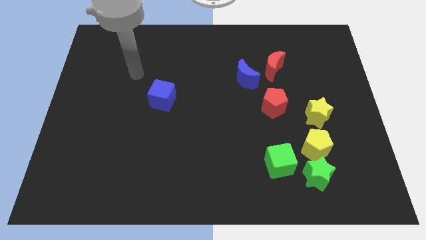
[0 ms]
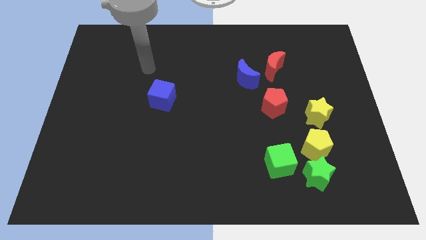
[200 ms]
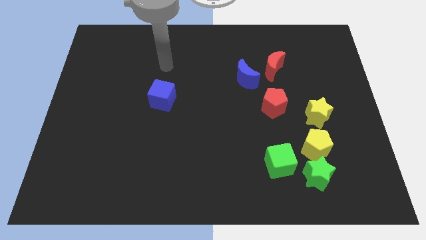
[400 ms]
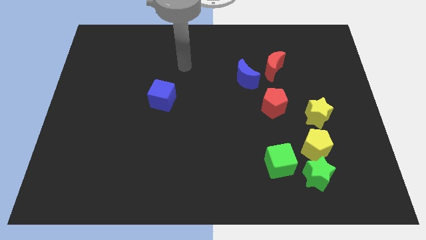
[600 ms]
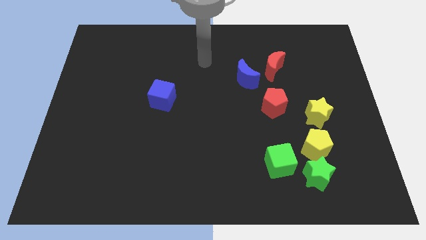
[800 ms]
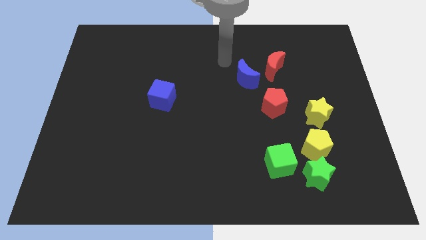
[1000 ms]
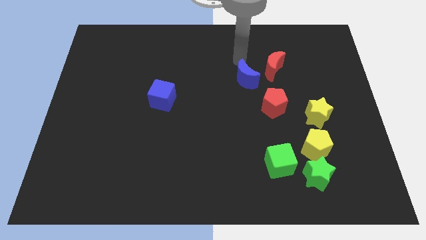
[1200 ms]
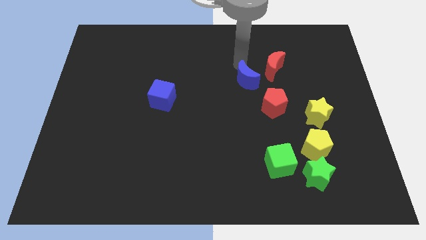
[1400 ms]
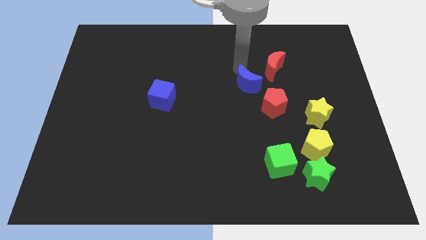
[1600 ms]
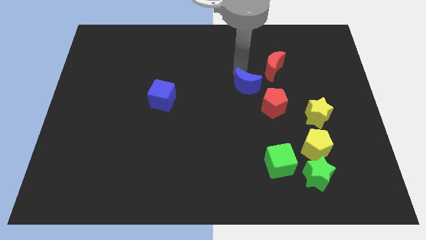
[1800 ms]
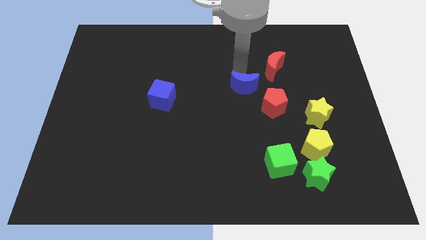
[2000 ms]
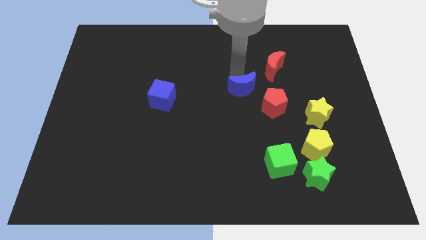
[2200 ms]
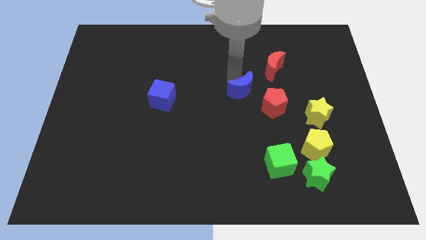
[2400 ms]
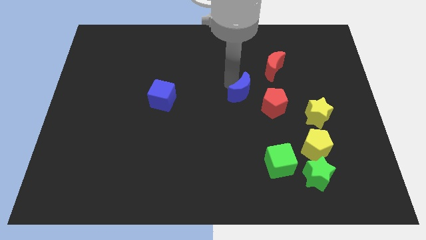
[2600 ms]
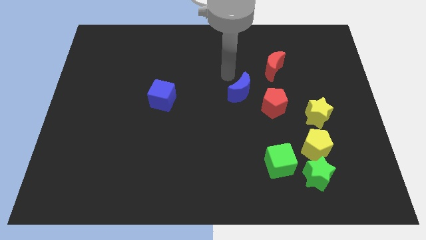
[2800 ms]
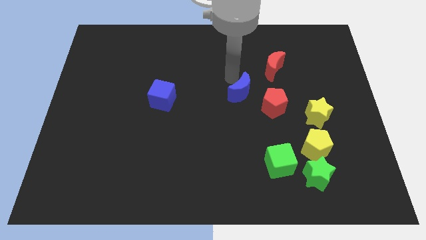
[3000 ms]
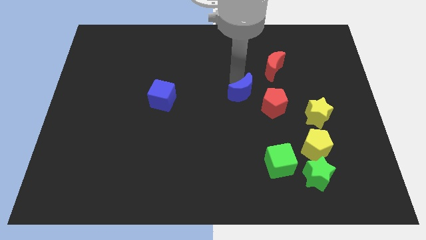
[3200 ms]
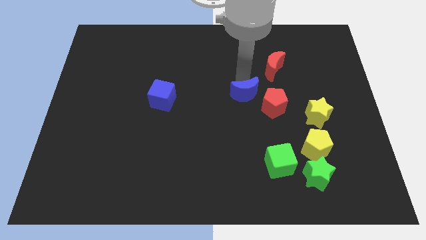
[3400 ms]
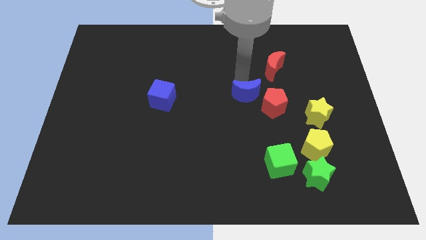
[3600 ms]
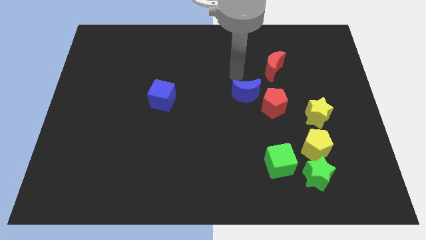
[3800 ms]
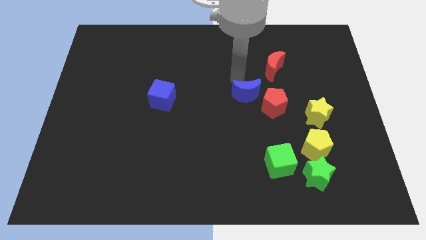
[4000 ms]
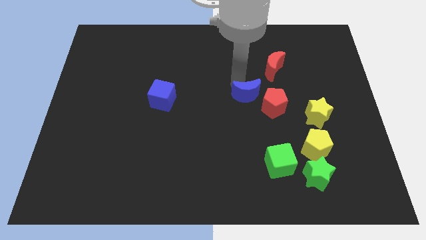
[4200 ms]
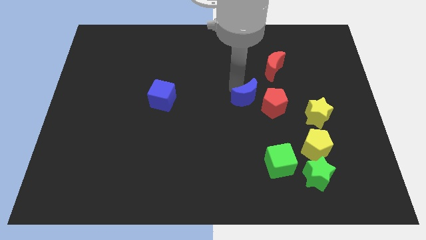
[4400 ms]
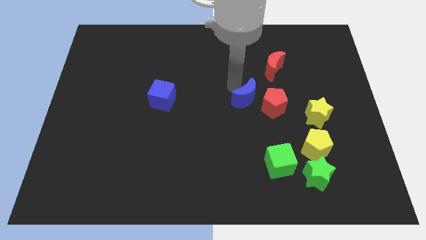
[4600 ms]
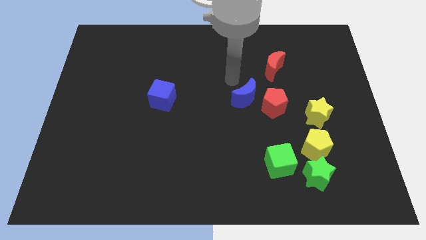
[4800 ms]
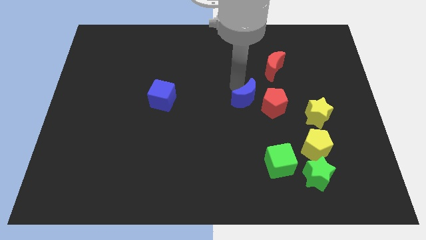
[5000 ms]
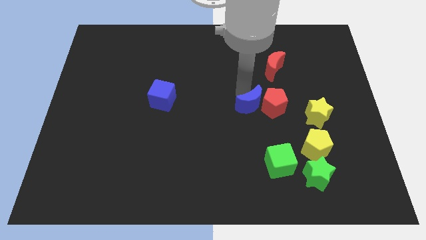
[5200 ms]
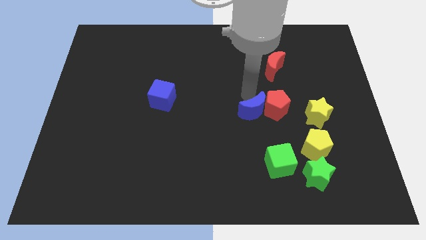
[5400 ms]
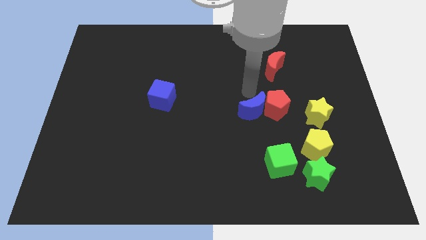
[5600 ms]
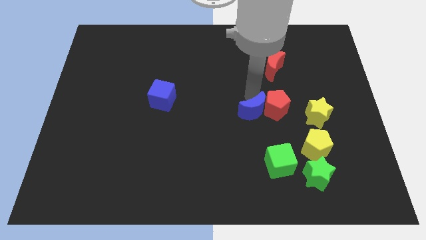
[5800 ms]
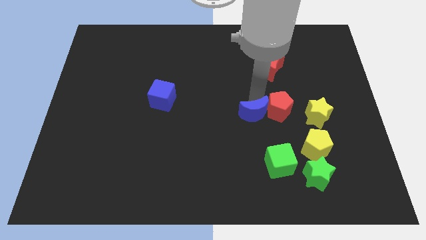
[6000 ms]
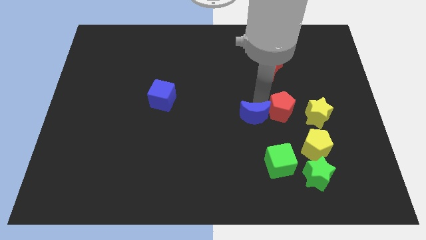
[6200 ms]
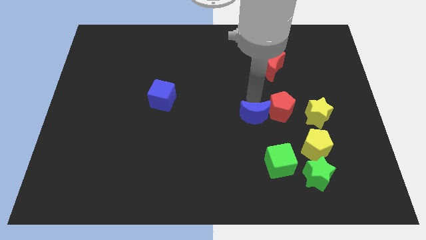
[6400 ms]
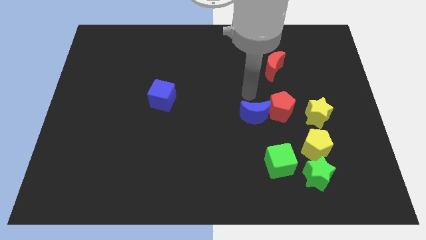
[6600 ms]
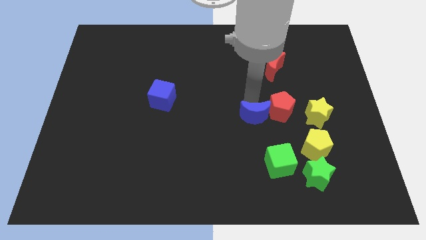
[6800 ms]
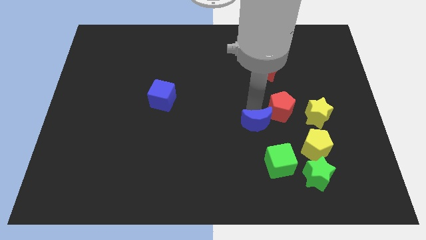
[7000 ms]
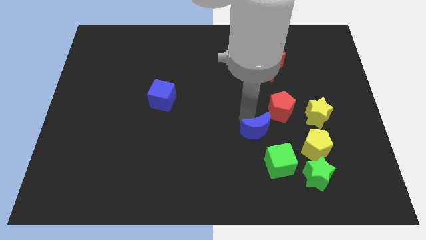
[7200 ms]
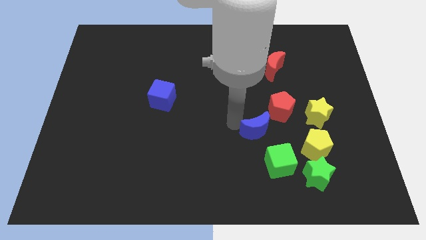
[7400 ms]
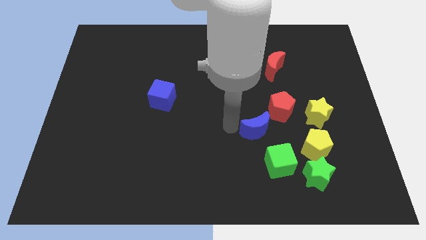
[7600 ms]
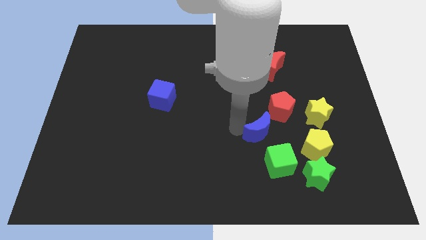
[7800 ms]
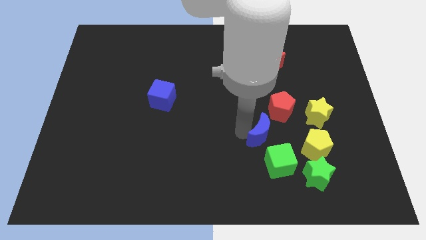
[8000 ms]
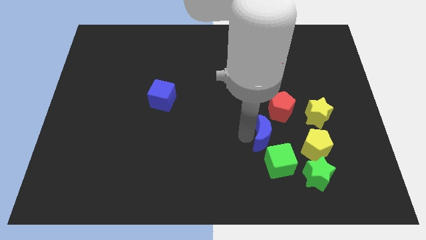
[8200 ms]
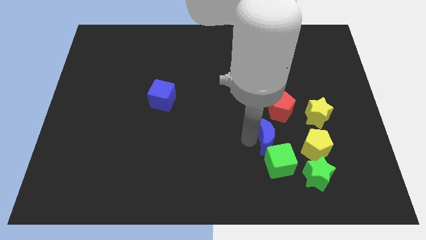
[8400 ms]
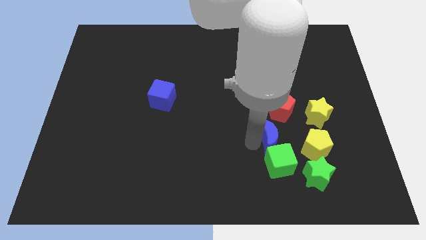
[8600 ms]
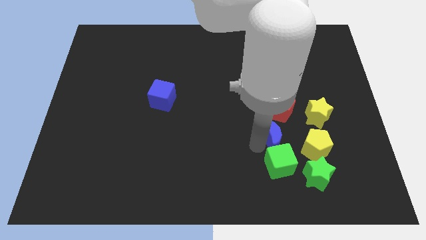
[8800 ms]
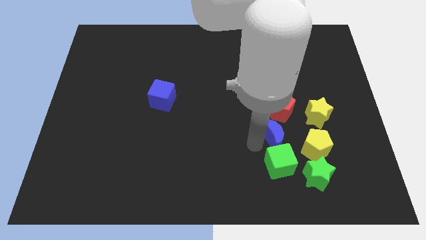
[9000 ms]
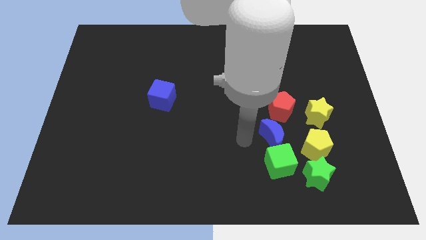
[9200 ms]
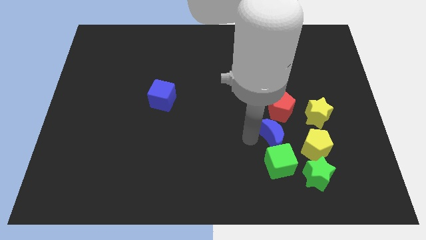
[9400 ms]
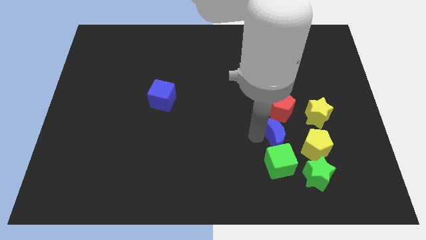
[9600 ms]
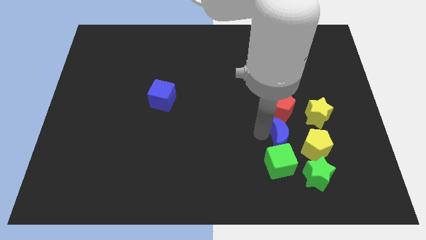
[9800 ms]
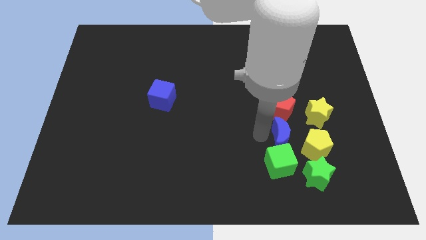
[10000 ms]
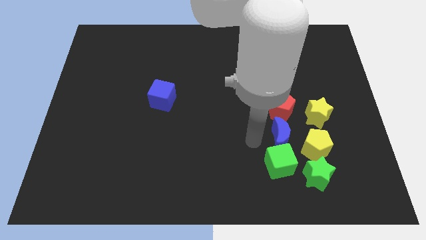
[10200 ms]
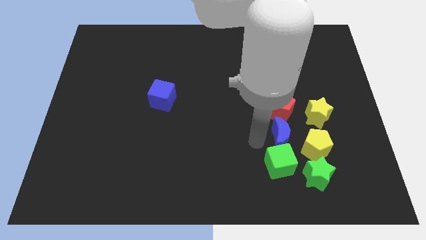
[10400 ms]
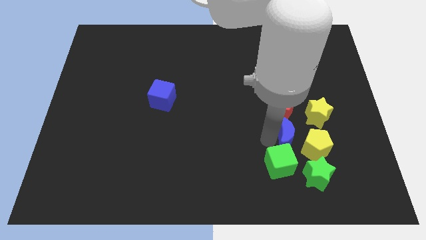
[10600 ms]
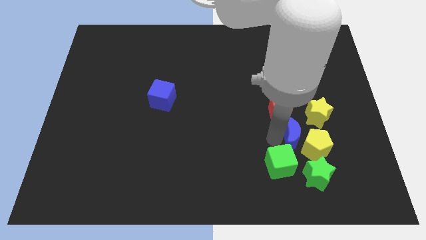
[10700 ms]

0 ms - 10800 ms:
put the blue moon close to the yellow pentagon

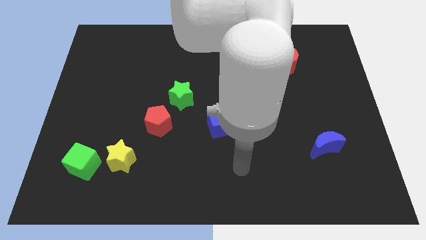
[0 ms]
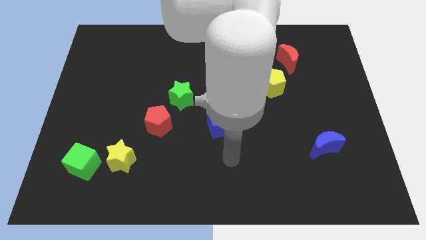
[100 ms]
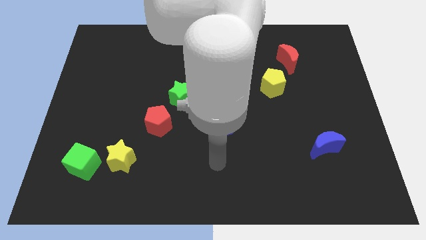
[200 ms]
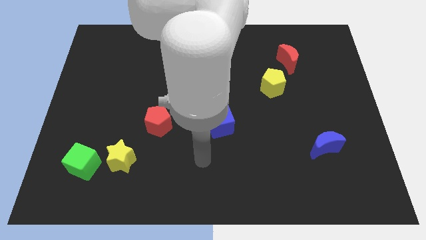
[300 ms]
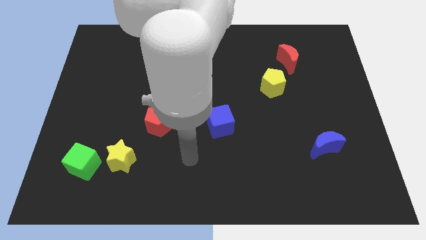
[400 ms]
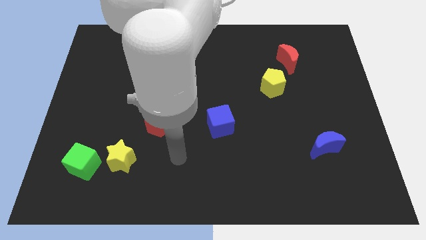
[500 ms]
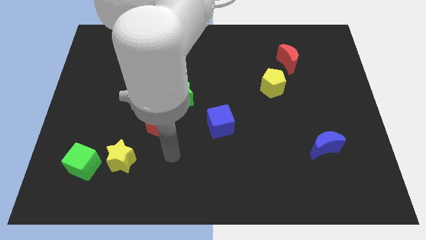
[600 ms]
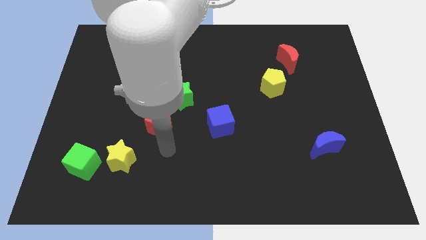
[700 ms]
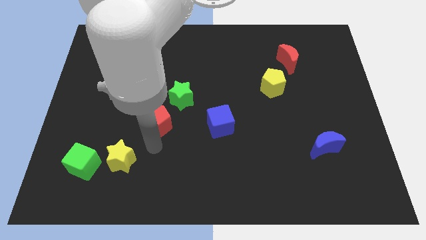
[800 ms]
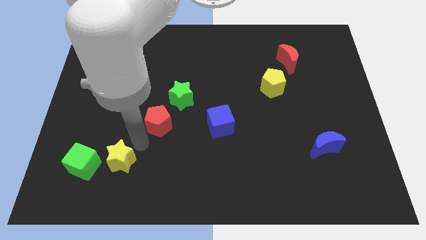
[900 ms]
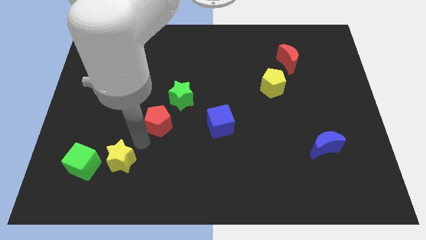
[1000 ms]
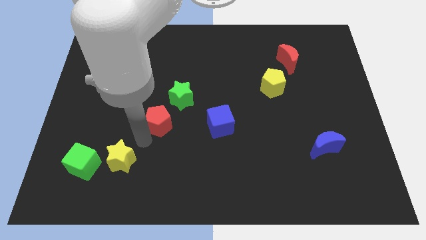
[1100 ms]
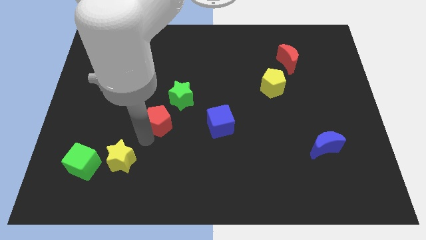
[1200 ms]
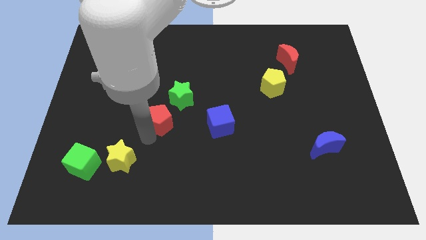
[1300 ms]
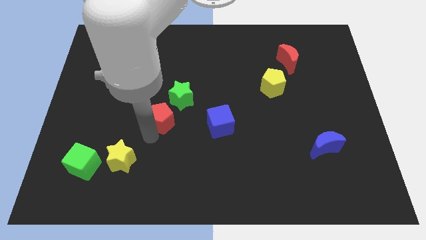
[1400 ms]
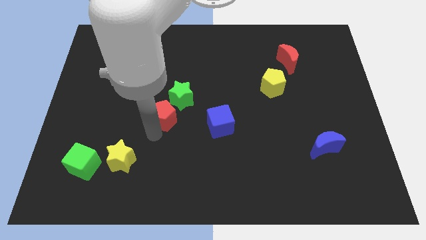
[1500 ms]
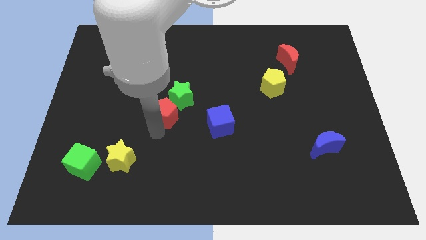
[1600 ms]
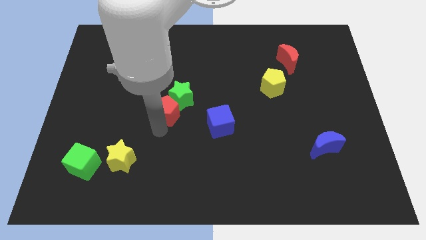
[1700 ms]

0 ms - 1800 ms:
move the red pentagon towards the green star

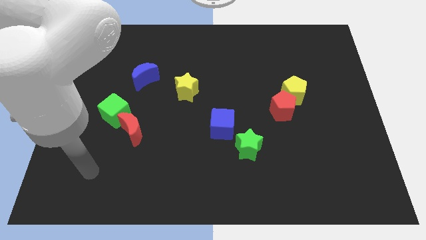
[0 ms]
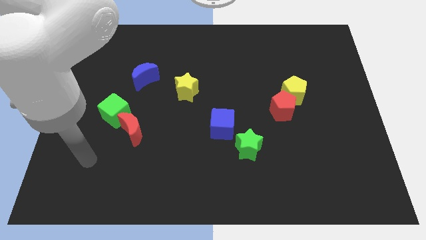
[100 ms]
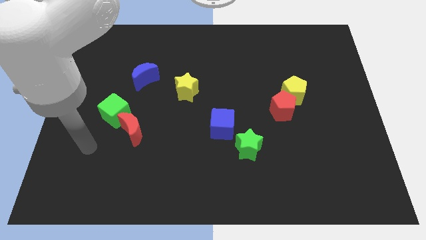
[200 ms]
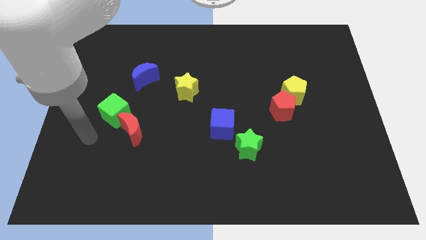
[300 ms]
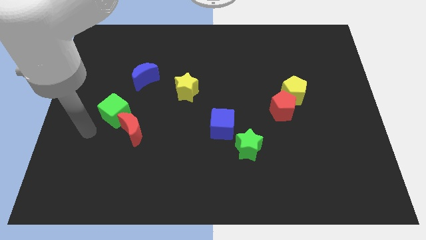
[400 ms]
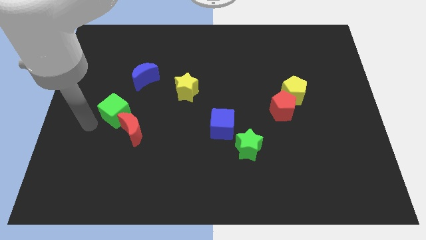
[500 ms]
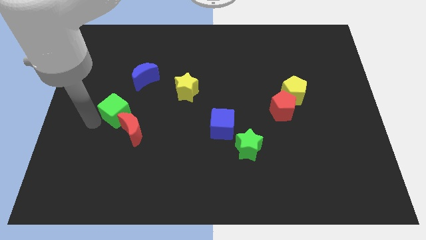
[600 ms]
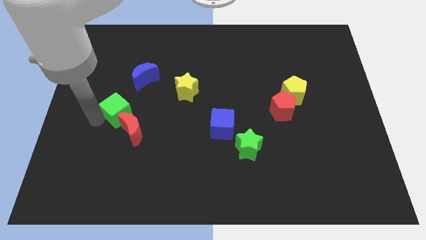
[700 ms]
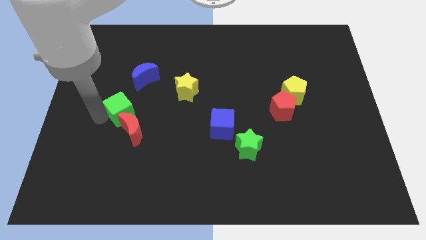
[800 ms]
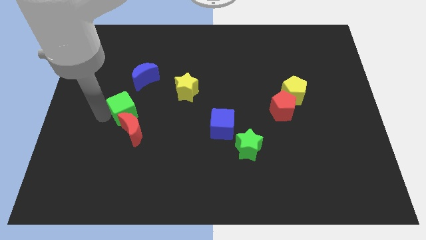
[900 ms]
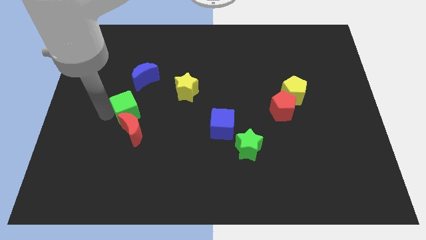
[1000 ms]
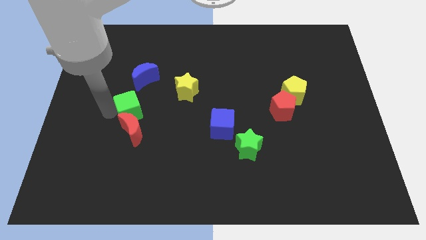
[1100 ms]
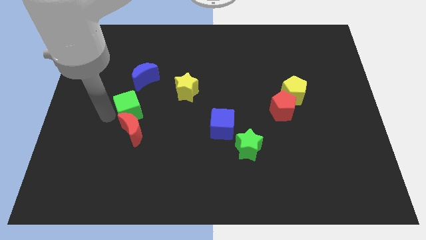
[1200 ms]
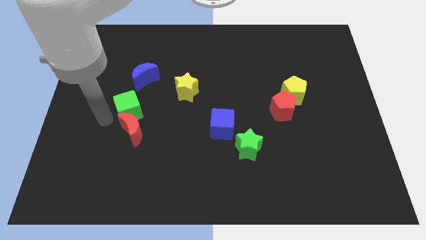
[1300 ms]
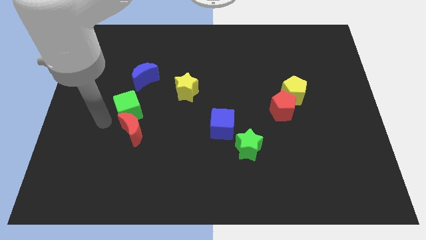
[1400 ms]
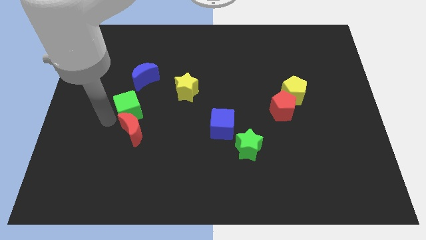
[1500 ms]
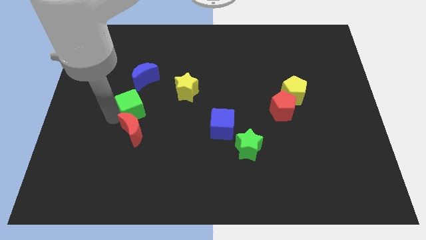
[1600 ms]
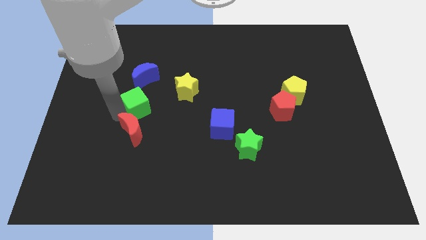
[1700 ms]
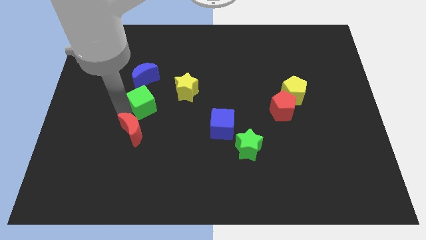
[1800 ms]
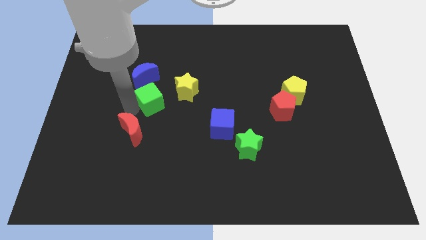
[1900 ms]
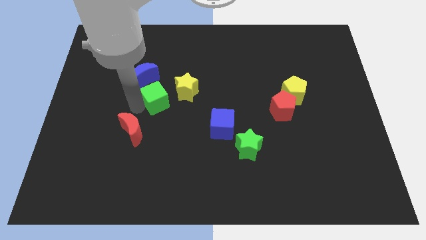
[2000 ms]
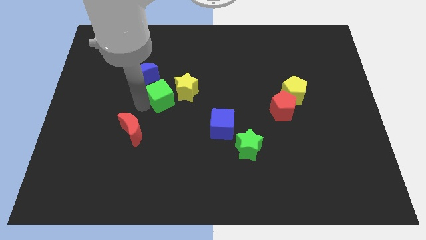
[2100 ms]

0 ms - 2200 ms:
put the green cube next to the yellow star
